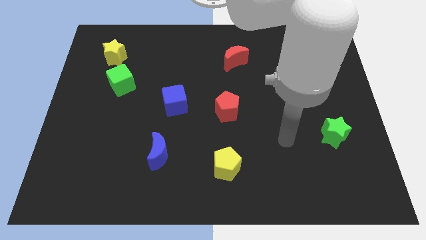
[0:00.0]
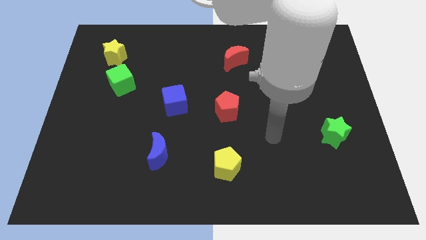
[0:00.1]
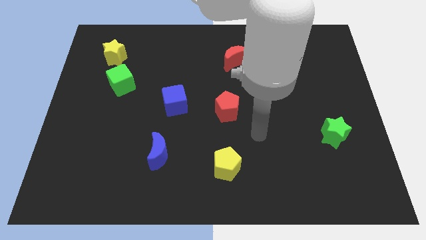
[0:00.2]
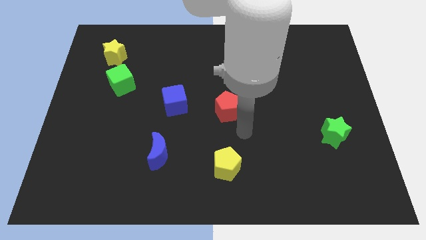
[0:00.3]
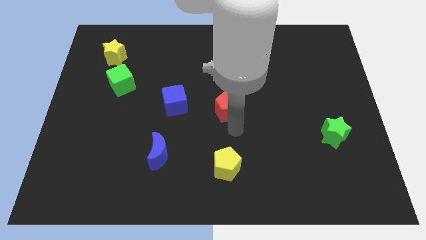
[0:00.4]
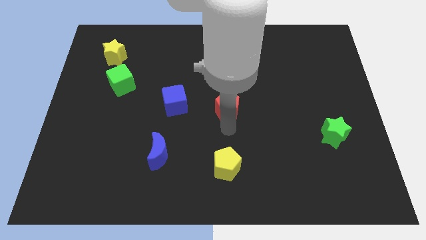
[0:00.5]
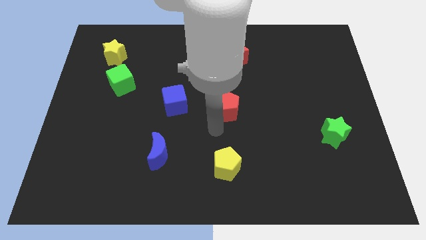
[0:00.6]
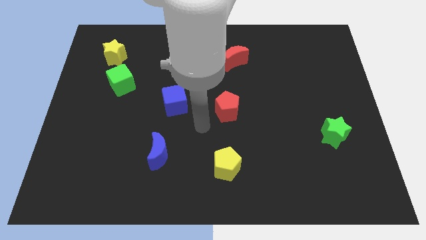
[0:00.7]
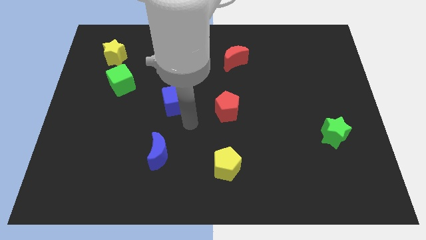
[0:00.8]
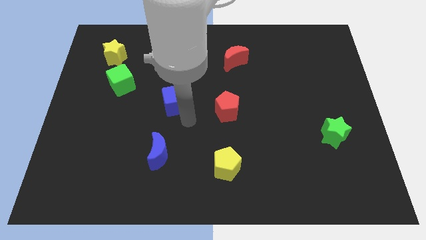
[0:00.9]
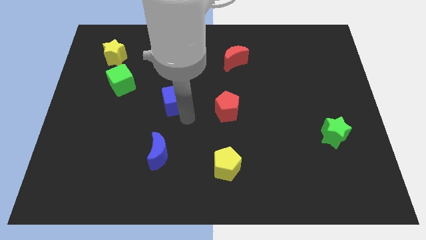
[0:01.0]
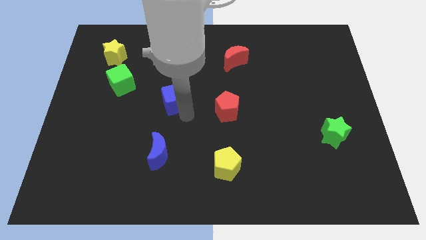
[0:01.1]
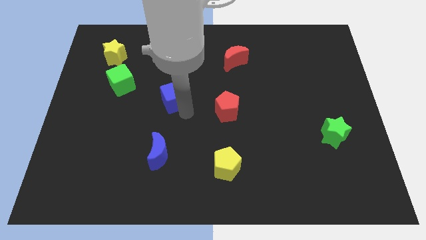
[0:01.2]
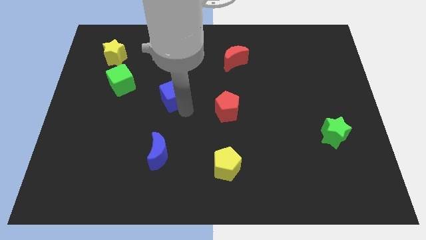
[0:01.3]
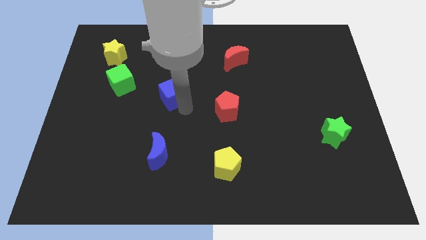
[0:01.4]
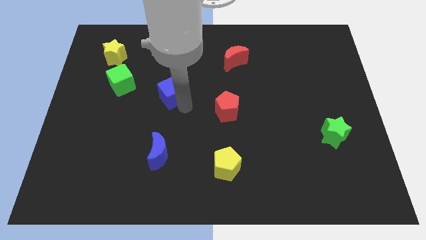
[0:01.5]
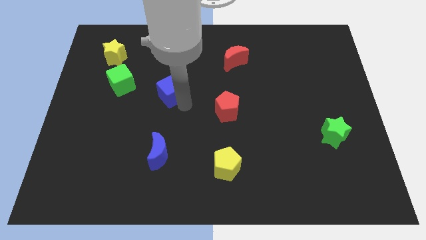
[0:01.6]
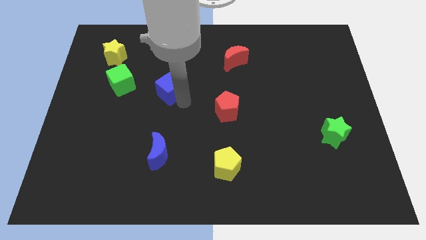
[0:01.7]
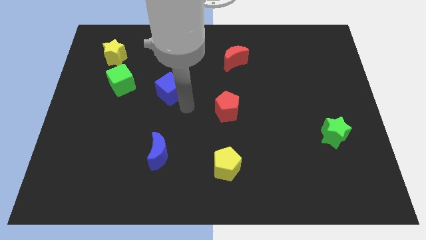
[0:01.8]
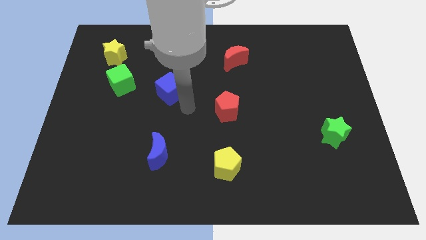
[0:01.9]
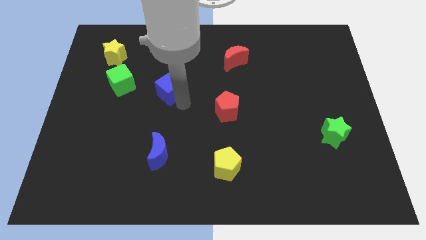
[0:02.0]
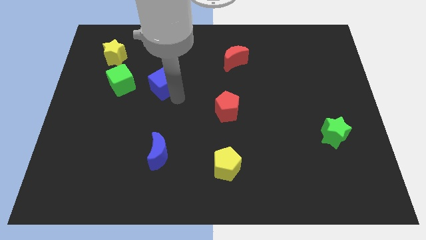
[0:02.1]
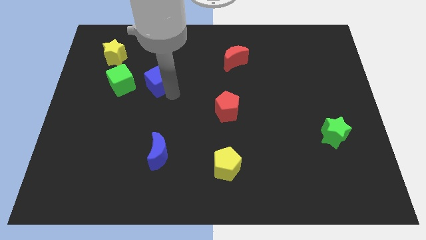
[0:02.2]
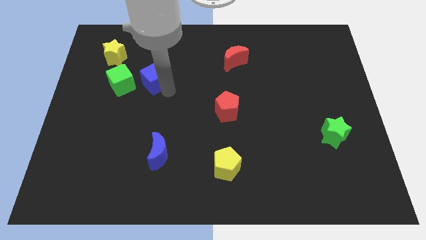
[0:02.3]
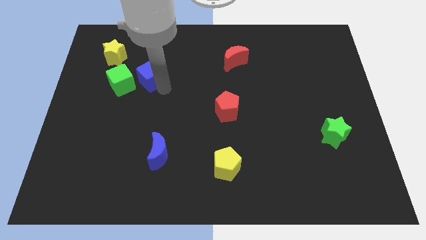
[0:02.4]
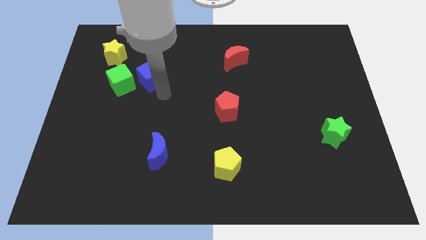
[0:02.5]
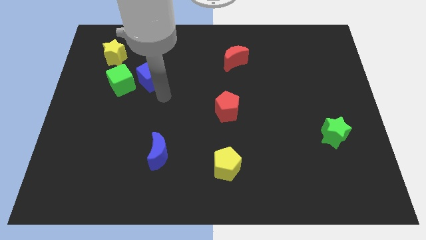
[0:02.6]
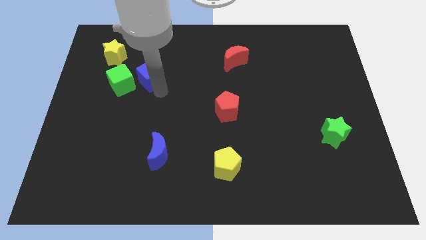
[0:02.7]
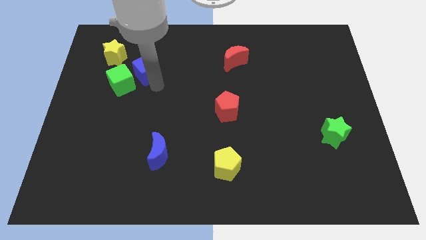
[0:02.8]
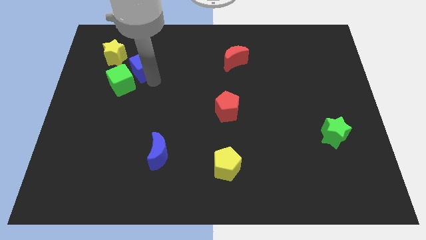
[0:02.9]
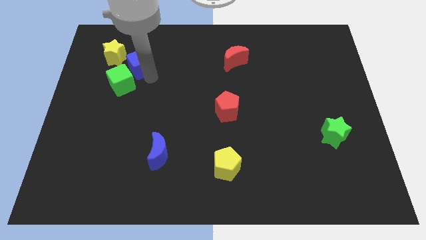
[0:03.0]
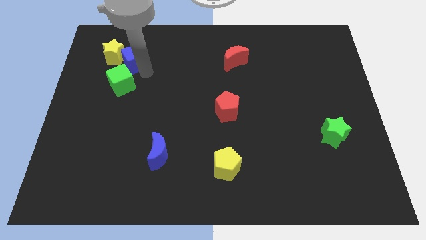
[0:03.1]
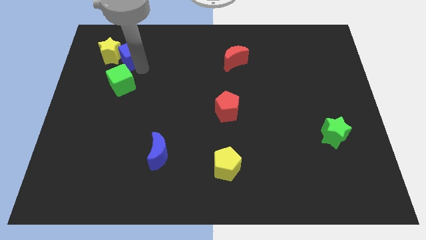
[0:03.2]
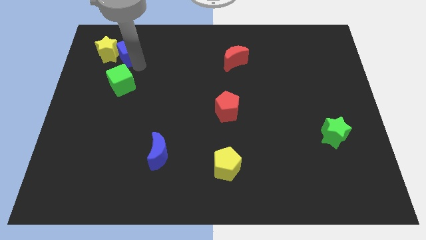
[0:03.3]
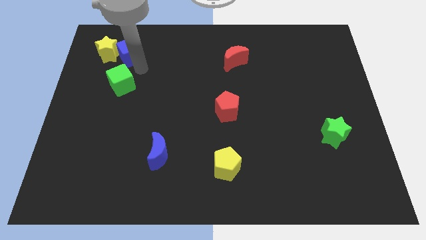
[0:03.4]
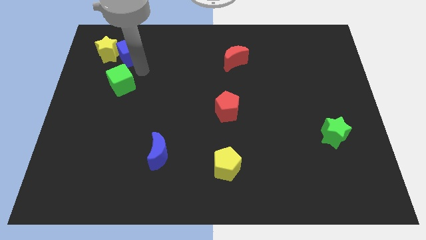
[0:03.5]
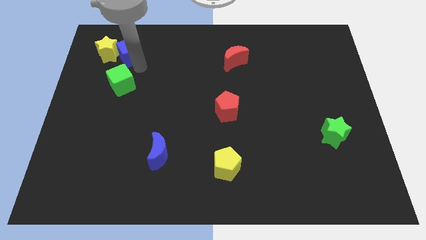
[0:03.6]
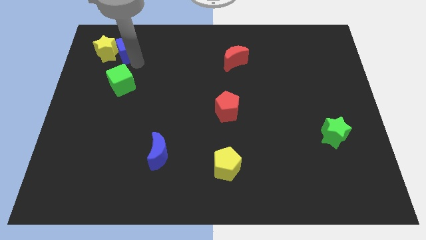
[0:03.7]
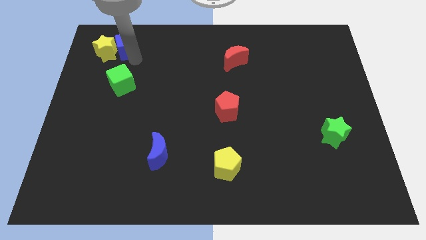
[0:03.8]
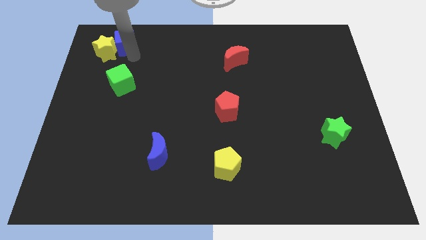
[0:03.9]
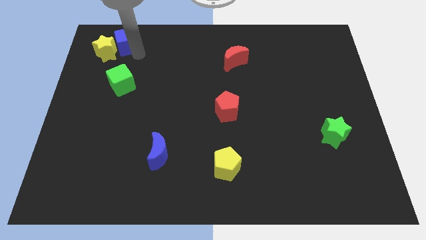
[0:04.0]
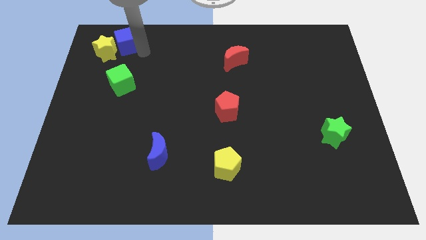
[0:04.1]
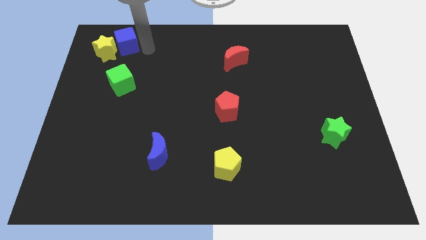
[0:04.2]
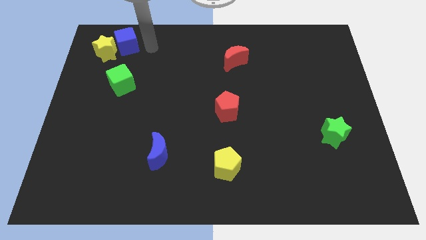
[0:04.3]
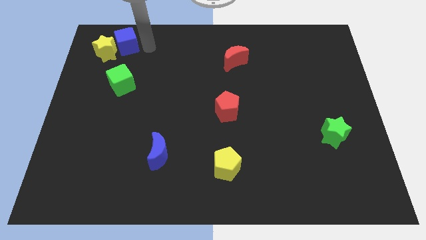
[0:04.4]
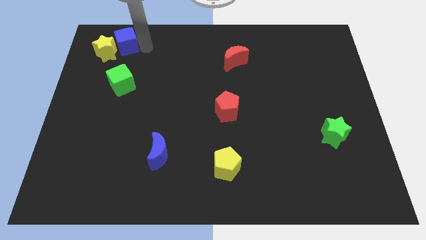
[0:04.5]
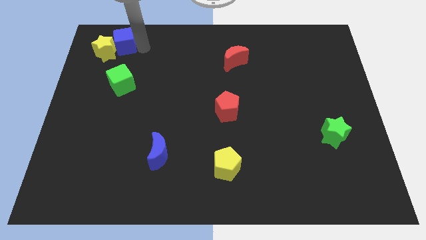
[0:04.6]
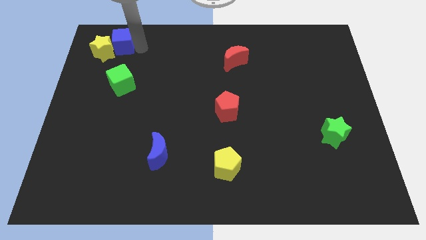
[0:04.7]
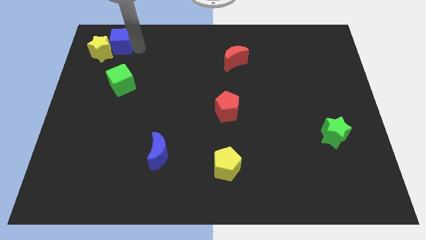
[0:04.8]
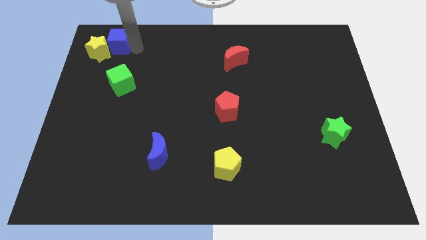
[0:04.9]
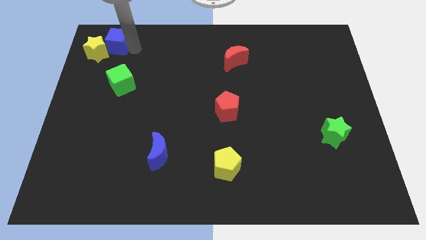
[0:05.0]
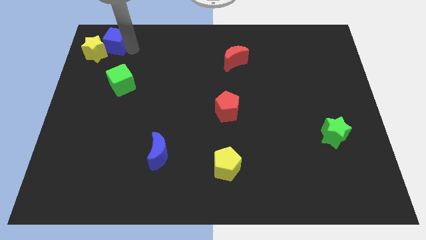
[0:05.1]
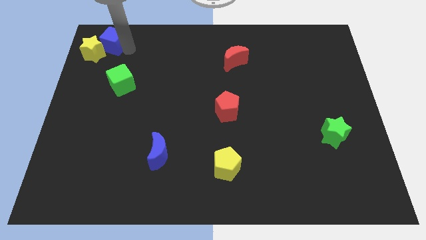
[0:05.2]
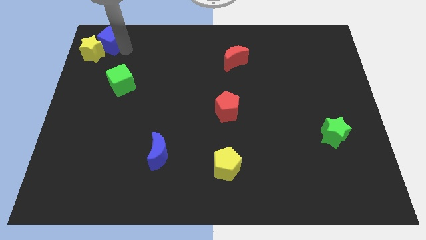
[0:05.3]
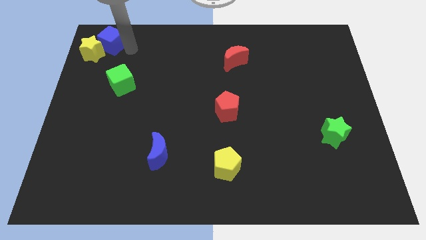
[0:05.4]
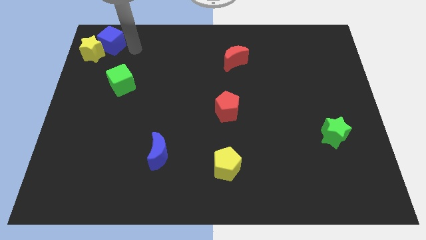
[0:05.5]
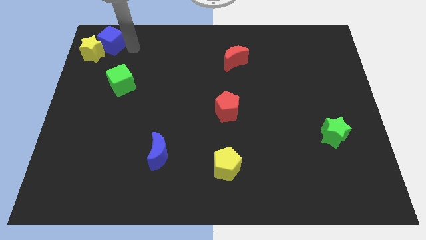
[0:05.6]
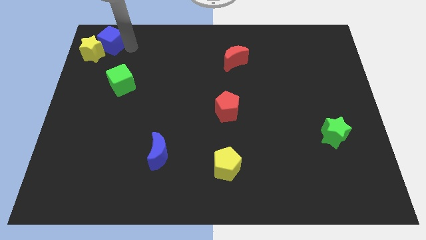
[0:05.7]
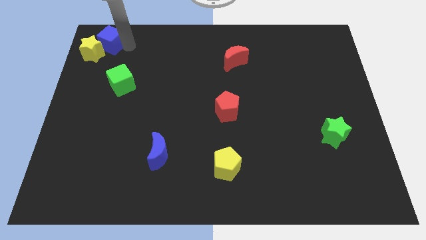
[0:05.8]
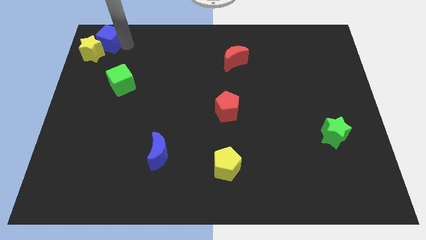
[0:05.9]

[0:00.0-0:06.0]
put the blue cube to the upper left corner
